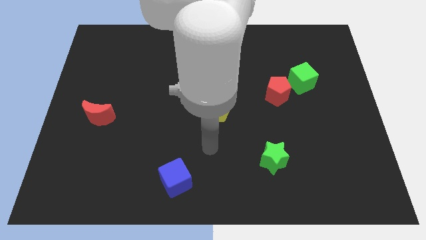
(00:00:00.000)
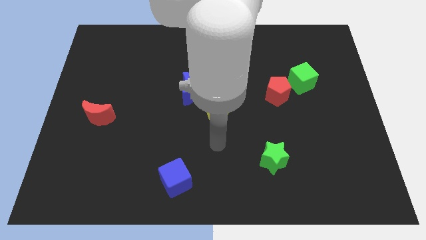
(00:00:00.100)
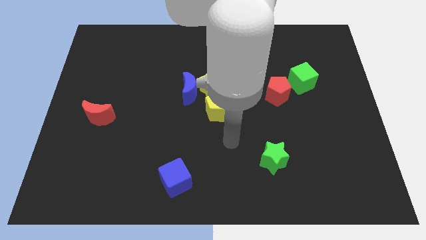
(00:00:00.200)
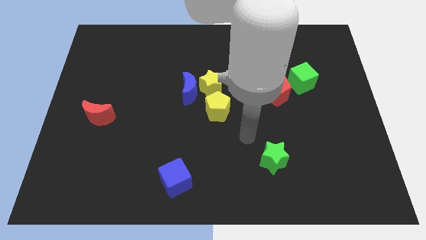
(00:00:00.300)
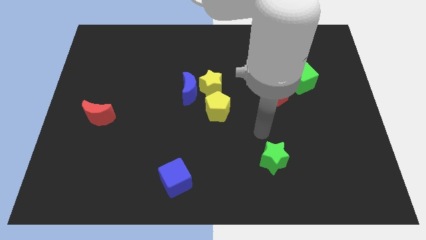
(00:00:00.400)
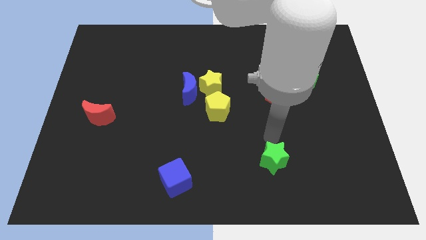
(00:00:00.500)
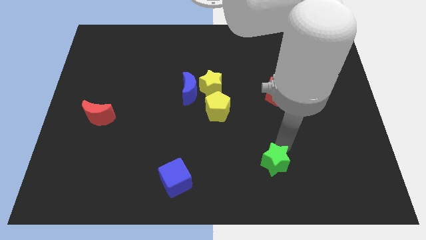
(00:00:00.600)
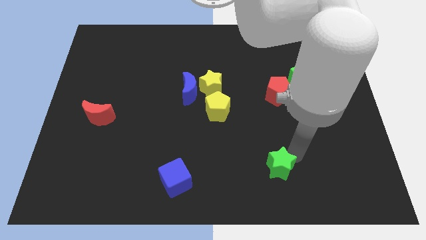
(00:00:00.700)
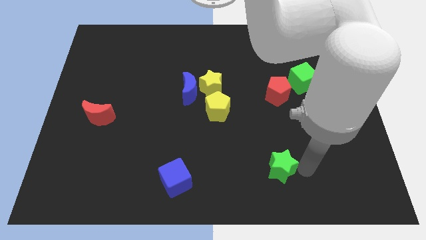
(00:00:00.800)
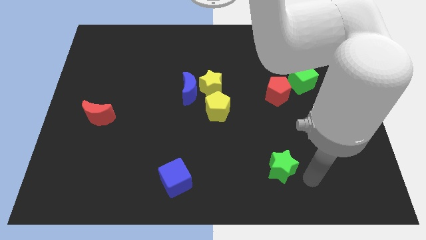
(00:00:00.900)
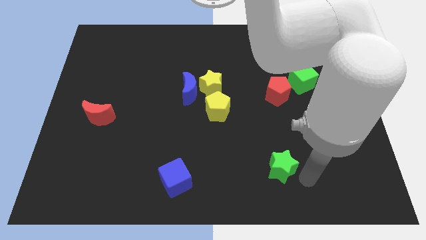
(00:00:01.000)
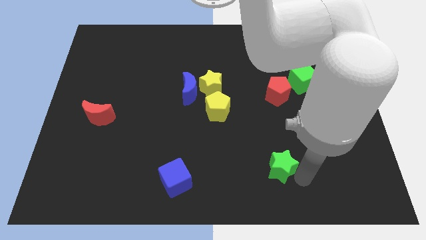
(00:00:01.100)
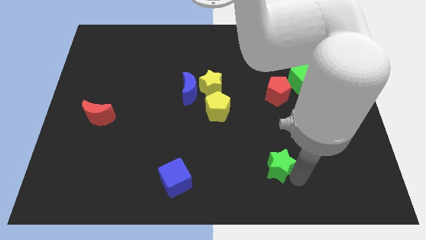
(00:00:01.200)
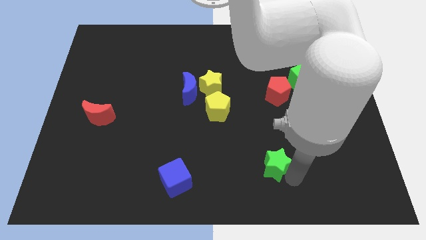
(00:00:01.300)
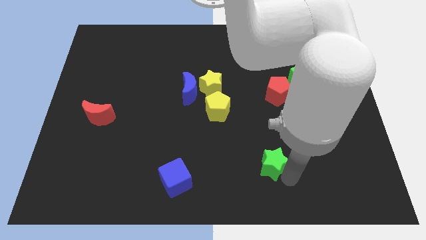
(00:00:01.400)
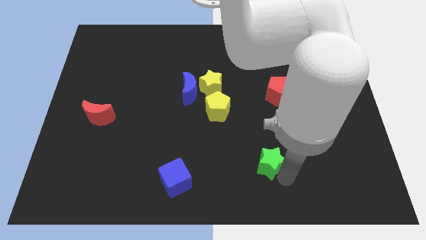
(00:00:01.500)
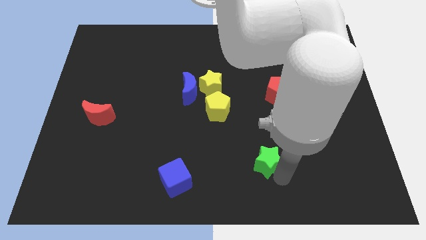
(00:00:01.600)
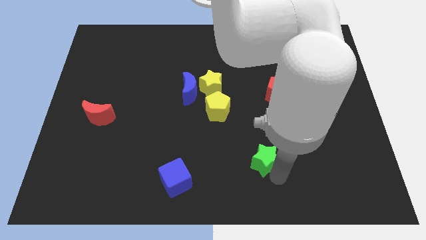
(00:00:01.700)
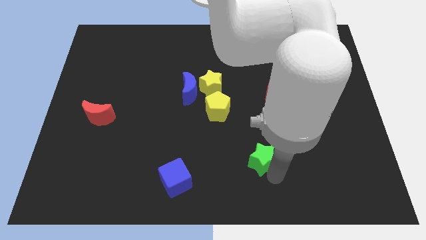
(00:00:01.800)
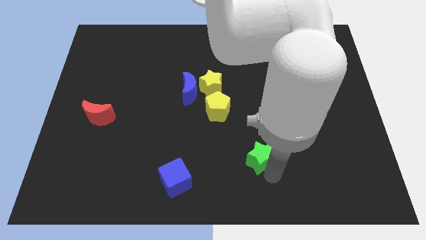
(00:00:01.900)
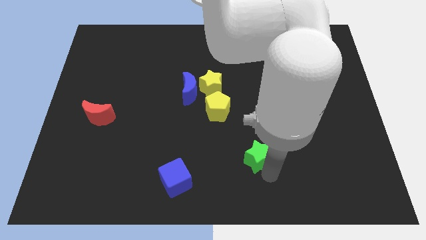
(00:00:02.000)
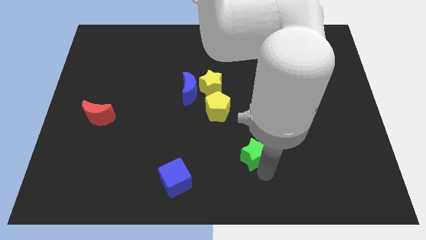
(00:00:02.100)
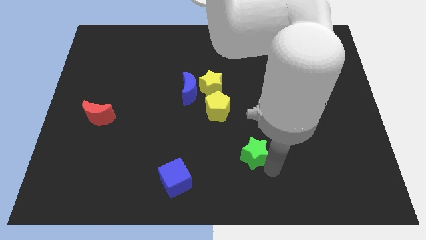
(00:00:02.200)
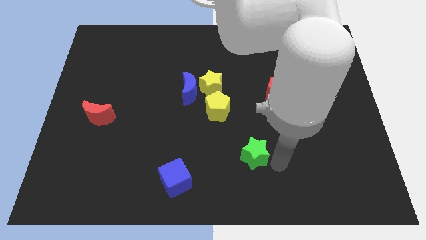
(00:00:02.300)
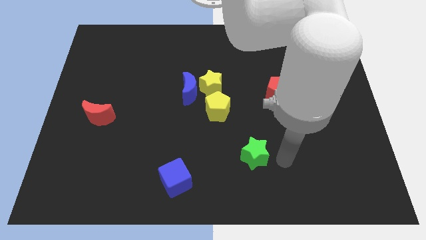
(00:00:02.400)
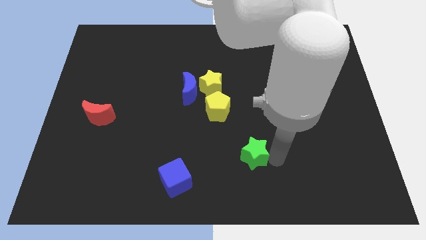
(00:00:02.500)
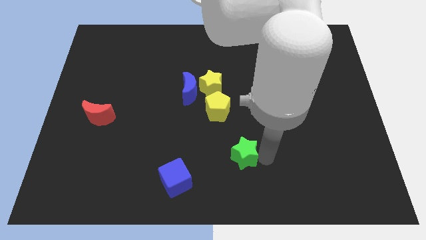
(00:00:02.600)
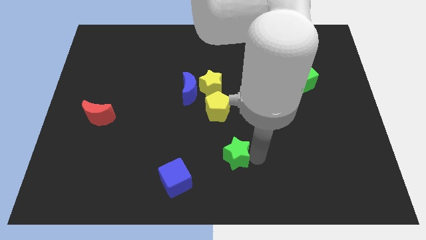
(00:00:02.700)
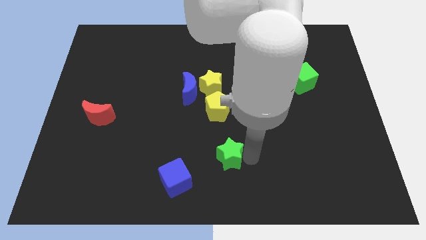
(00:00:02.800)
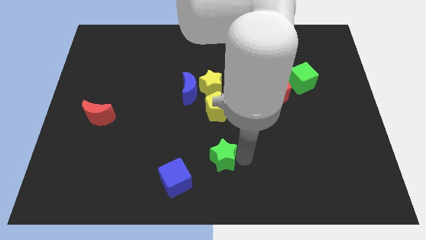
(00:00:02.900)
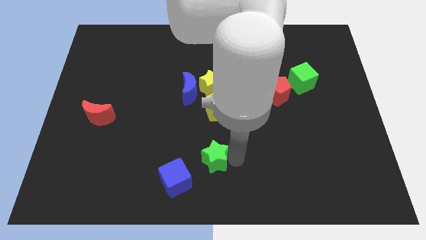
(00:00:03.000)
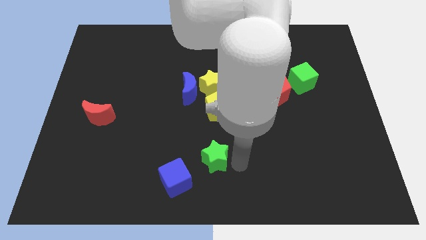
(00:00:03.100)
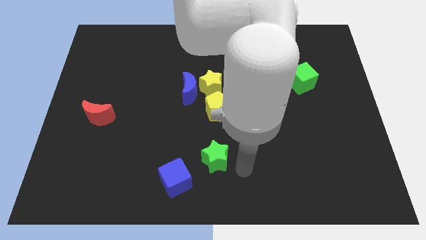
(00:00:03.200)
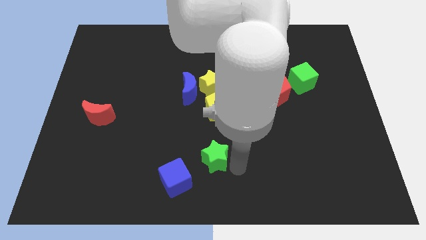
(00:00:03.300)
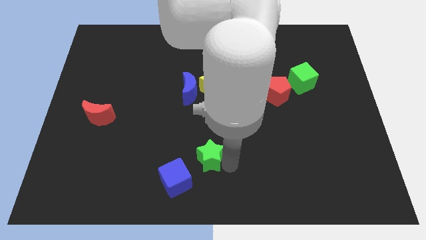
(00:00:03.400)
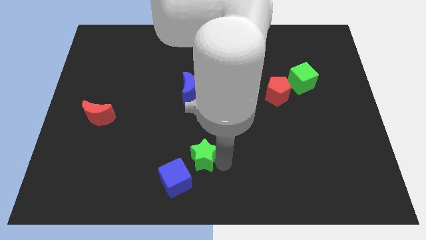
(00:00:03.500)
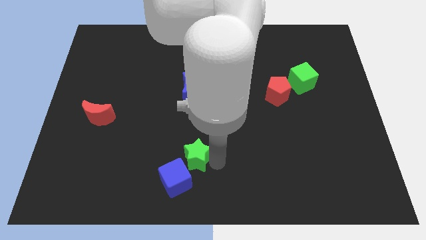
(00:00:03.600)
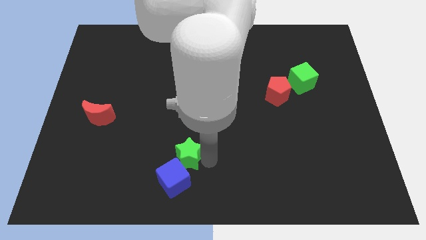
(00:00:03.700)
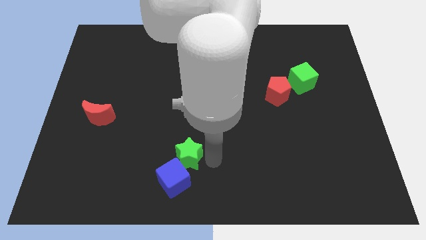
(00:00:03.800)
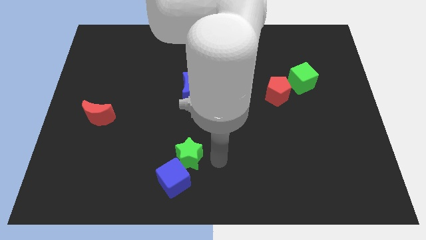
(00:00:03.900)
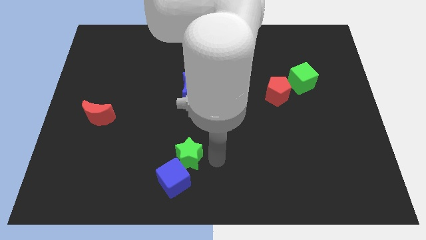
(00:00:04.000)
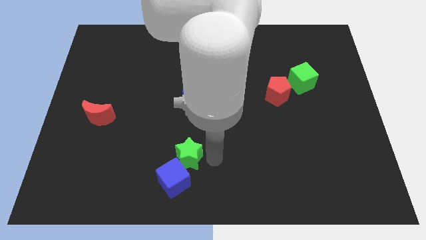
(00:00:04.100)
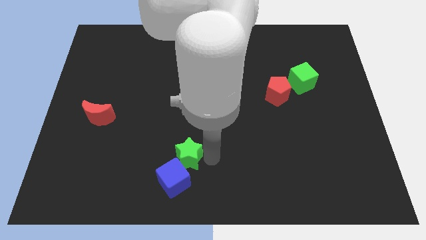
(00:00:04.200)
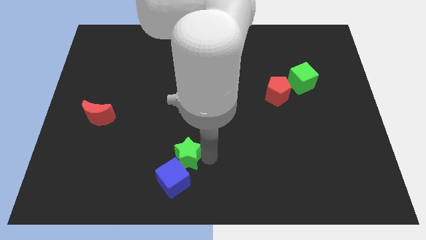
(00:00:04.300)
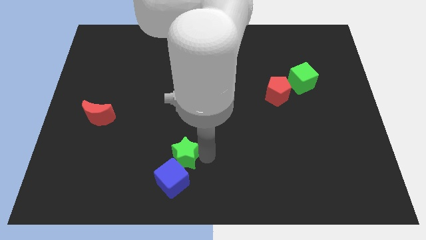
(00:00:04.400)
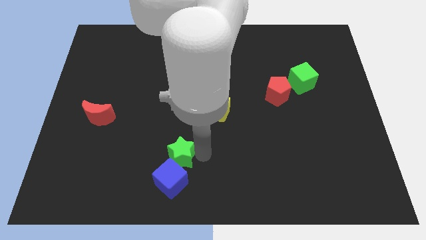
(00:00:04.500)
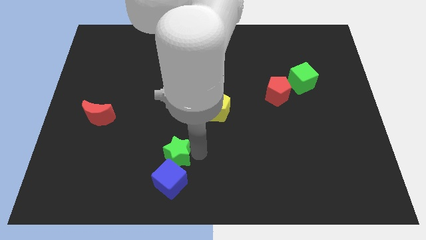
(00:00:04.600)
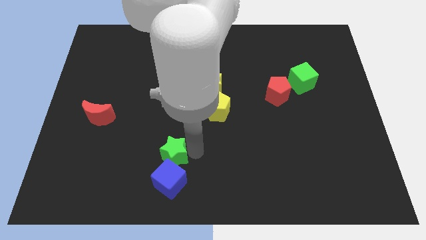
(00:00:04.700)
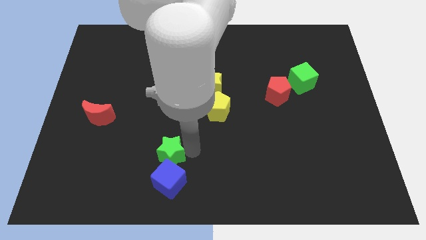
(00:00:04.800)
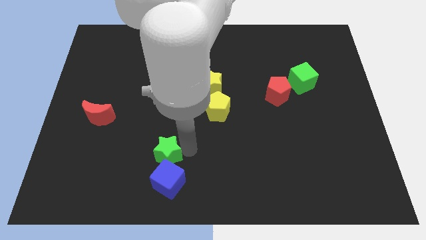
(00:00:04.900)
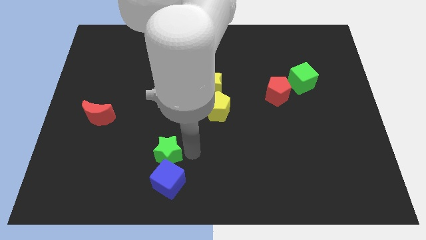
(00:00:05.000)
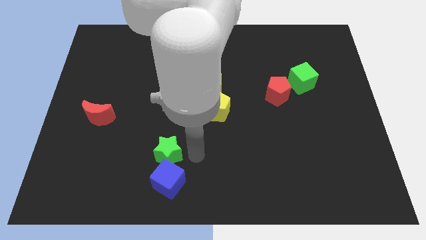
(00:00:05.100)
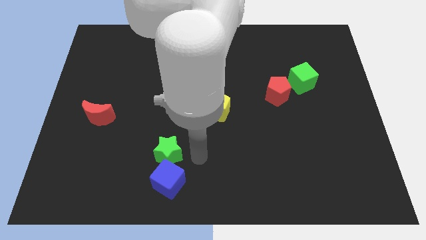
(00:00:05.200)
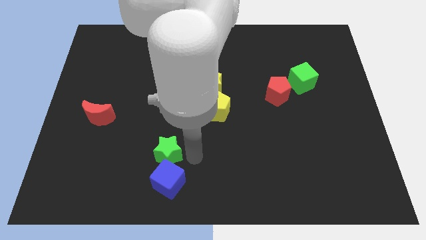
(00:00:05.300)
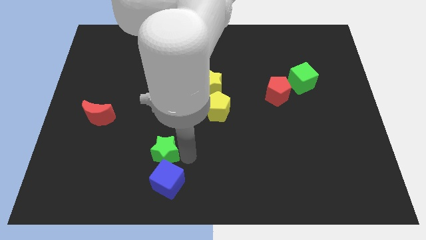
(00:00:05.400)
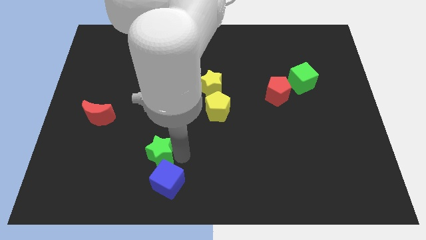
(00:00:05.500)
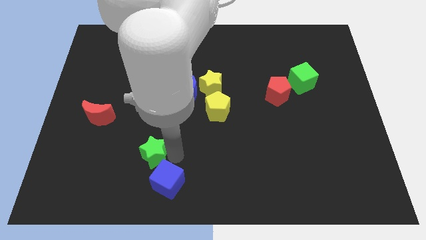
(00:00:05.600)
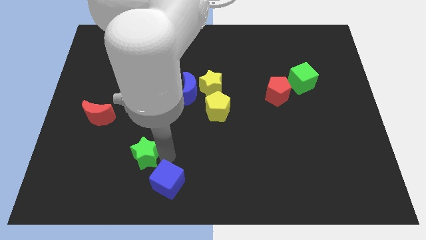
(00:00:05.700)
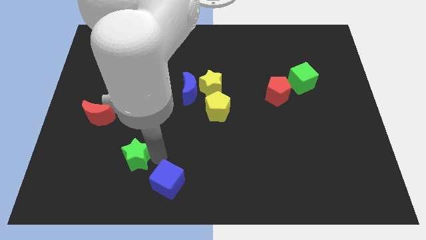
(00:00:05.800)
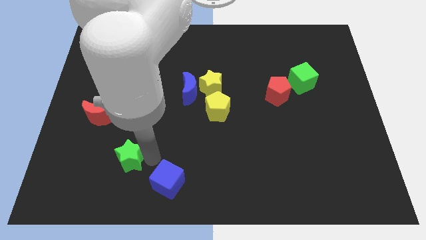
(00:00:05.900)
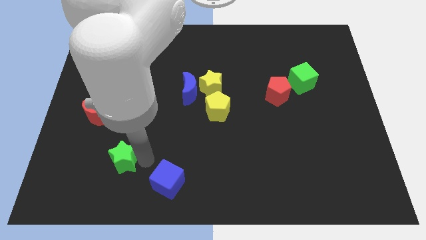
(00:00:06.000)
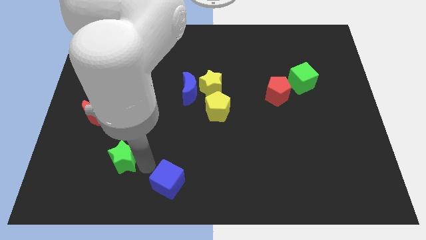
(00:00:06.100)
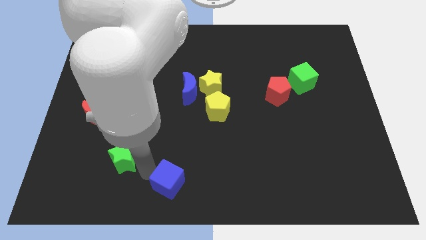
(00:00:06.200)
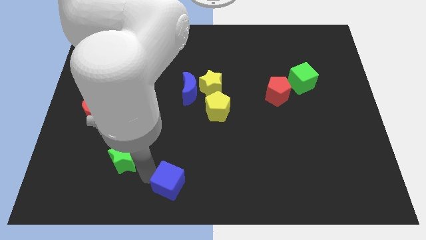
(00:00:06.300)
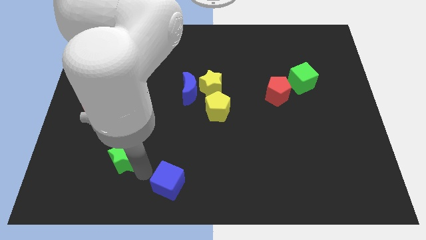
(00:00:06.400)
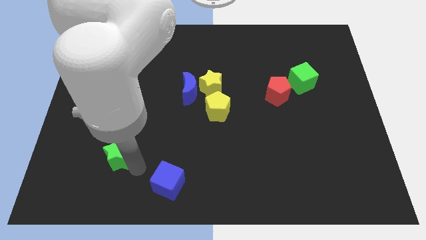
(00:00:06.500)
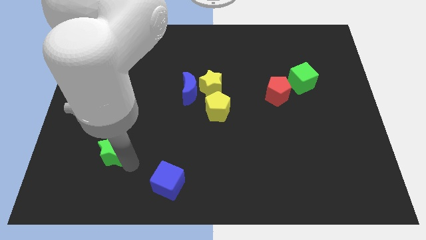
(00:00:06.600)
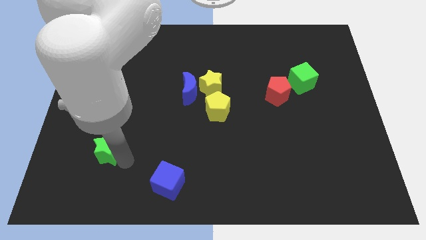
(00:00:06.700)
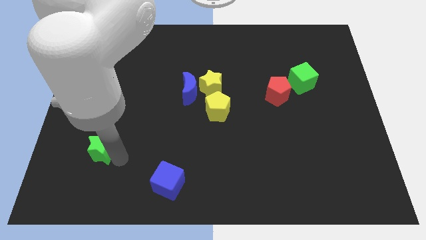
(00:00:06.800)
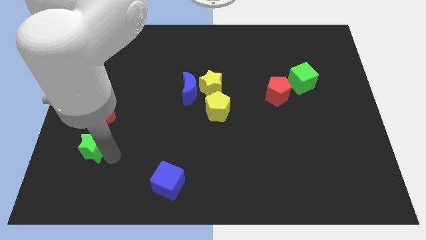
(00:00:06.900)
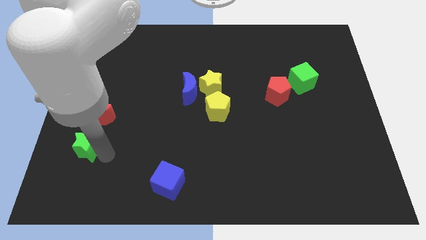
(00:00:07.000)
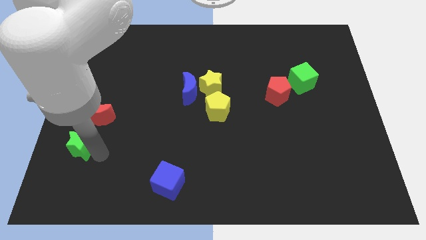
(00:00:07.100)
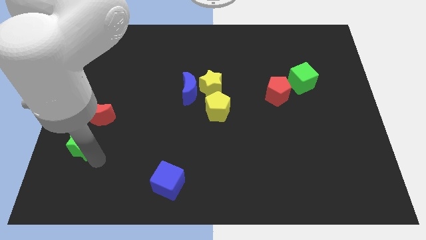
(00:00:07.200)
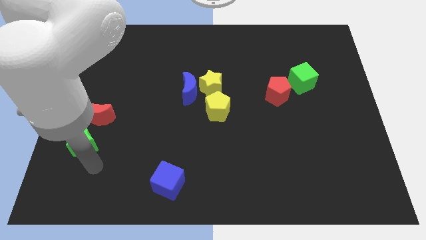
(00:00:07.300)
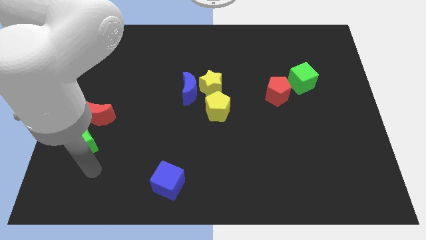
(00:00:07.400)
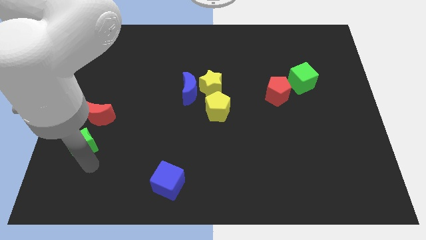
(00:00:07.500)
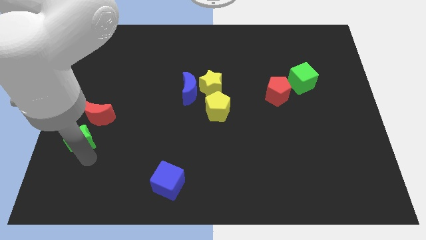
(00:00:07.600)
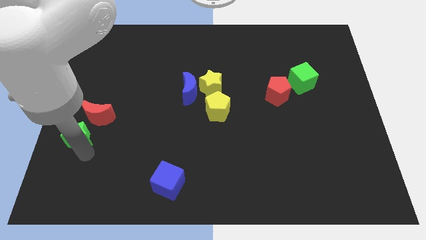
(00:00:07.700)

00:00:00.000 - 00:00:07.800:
put the green star to the left side of the board
